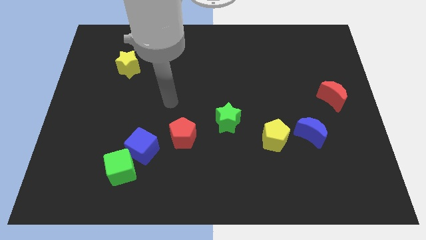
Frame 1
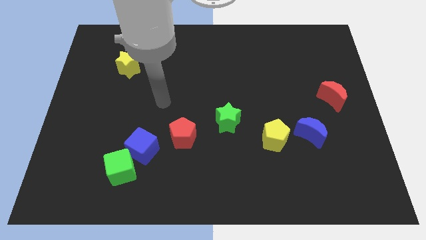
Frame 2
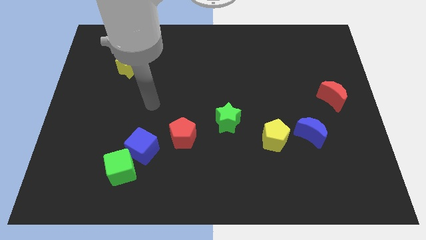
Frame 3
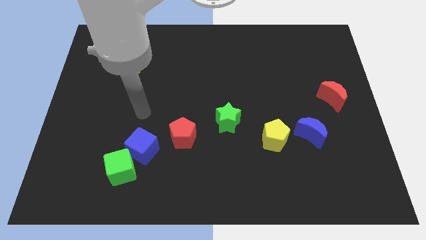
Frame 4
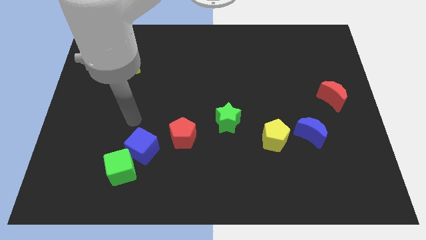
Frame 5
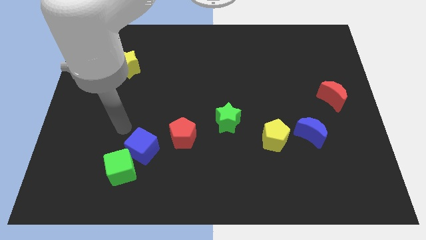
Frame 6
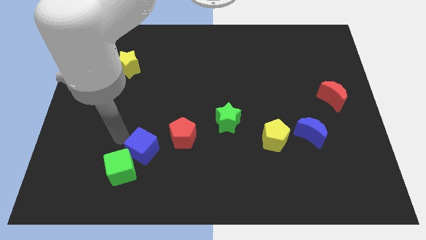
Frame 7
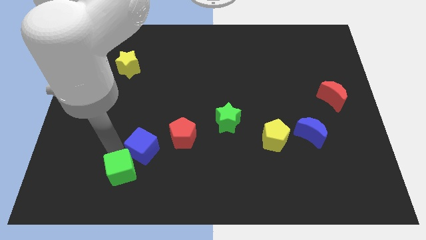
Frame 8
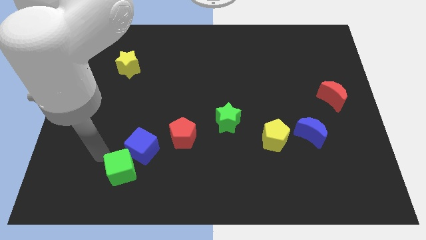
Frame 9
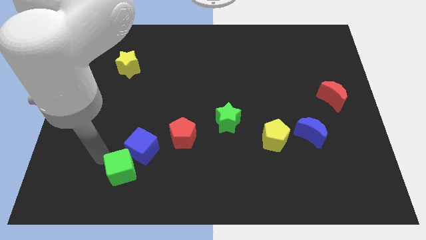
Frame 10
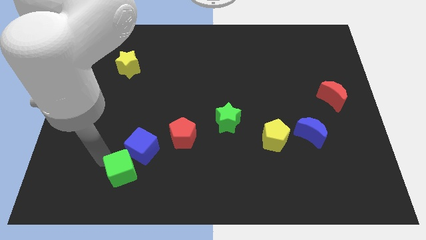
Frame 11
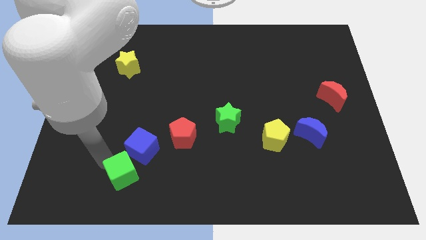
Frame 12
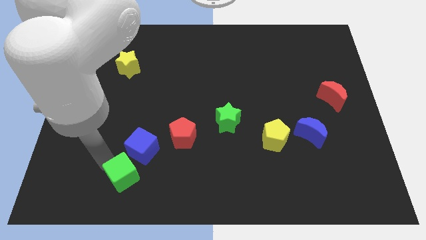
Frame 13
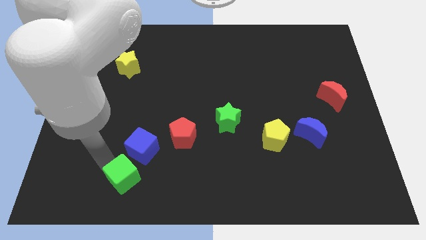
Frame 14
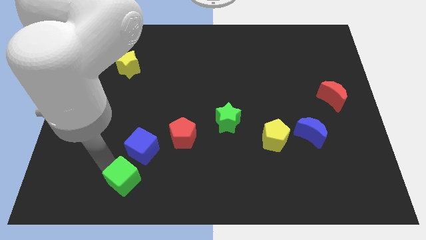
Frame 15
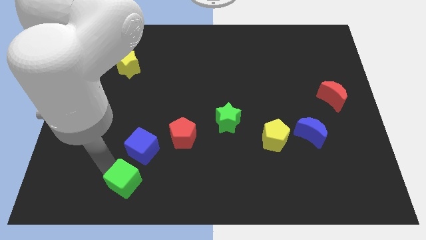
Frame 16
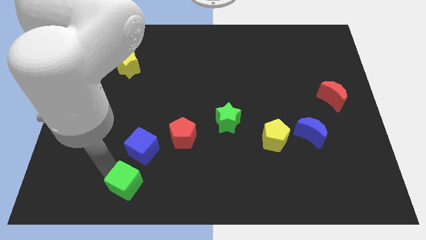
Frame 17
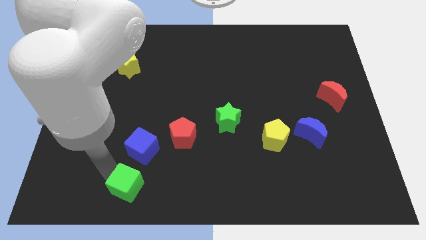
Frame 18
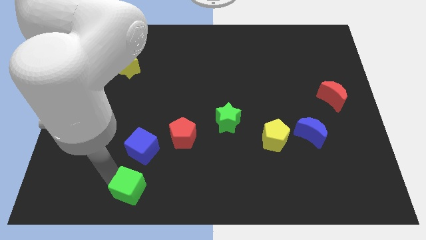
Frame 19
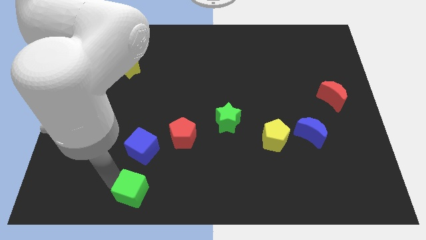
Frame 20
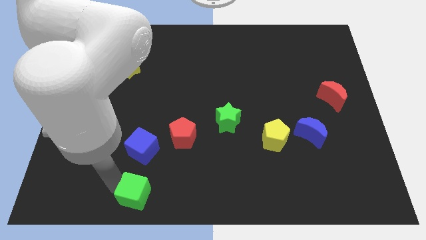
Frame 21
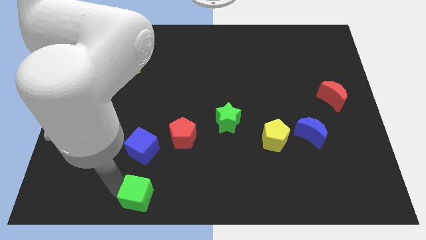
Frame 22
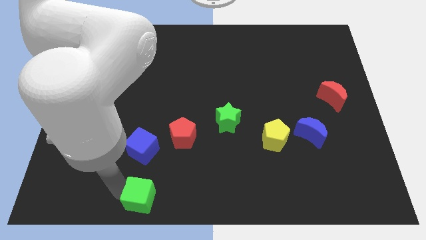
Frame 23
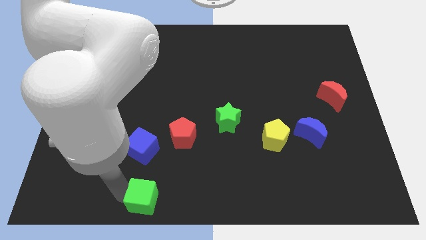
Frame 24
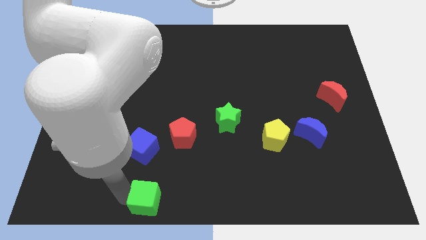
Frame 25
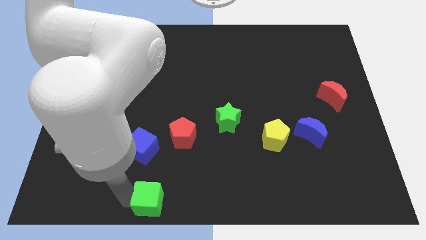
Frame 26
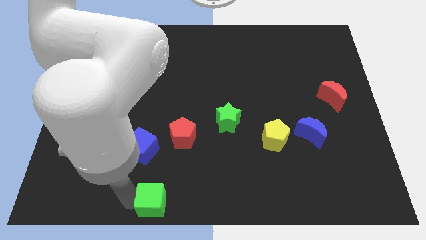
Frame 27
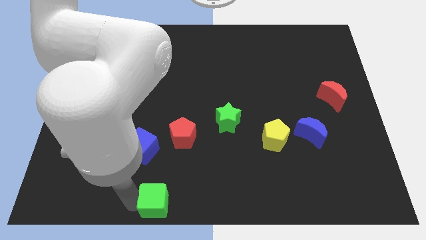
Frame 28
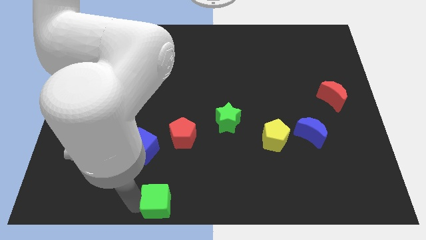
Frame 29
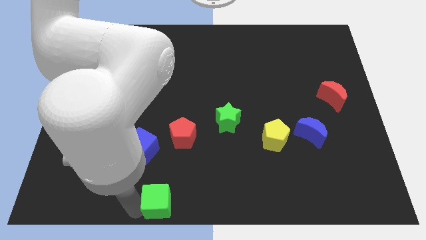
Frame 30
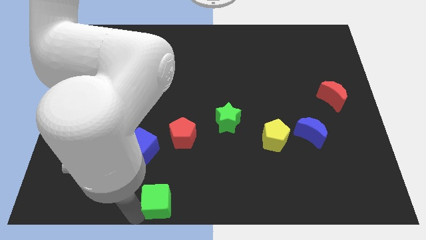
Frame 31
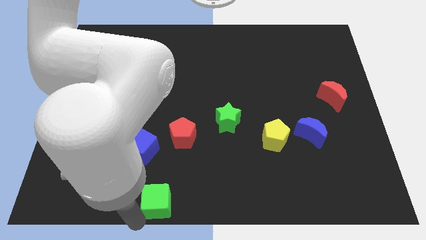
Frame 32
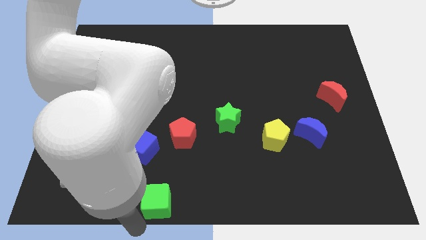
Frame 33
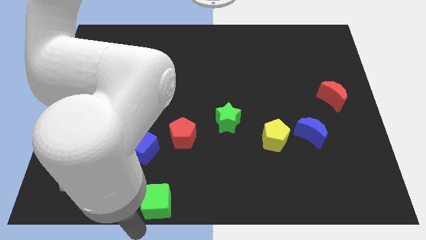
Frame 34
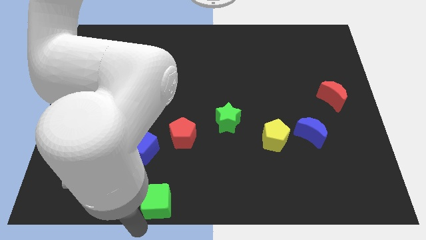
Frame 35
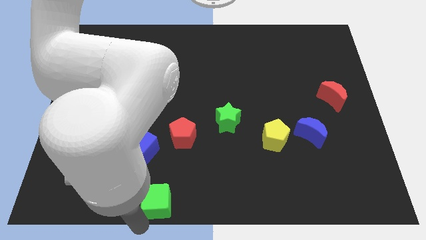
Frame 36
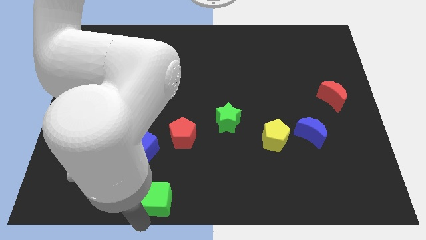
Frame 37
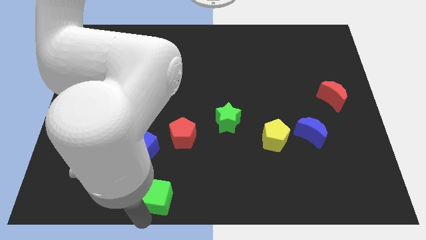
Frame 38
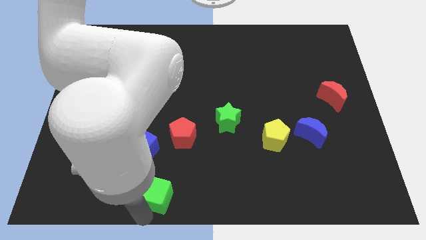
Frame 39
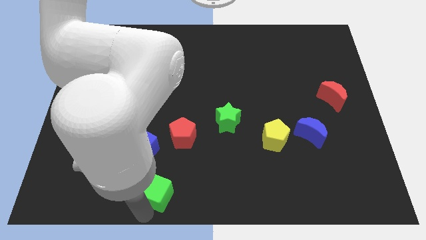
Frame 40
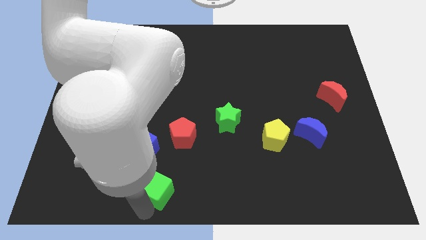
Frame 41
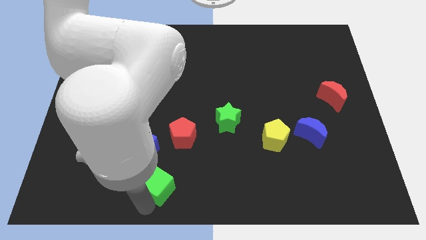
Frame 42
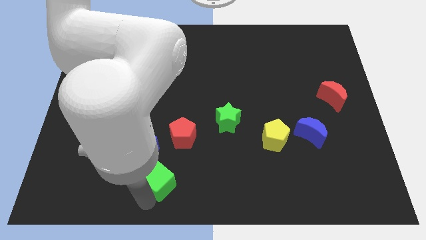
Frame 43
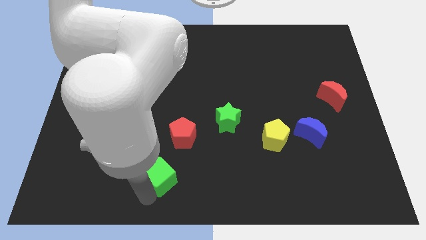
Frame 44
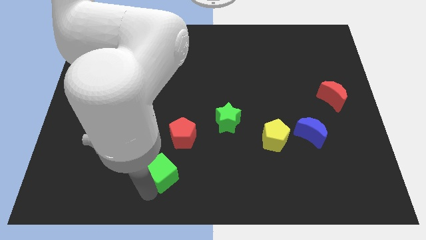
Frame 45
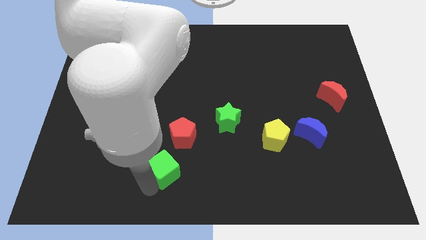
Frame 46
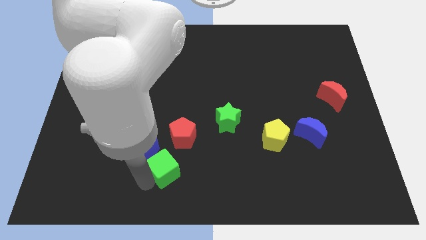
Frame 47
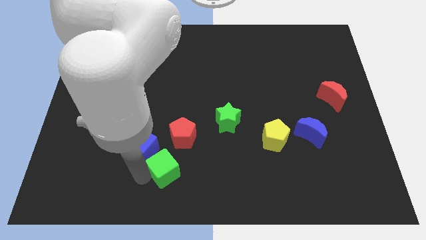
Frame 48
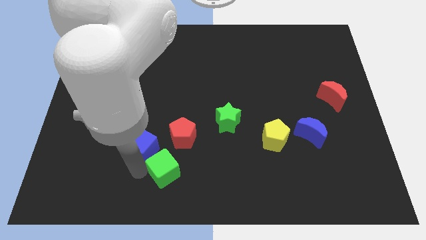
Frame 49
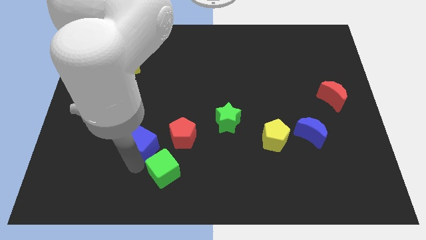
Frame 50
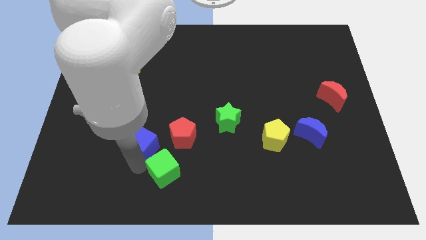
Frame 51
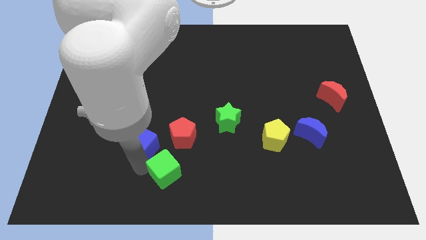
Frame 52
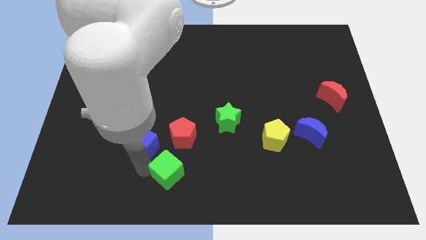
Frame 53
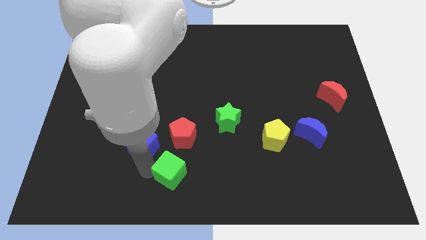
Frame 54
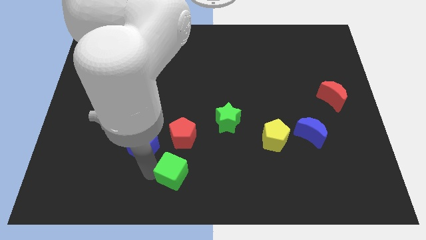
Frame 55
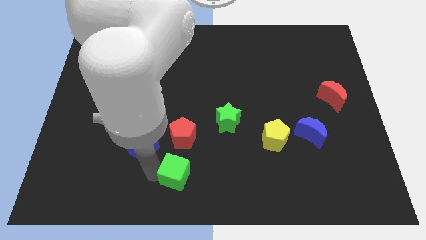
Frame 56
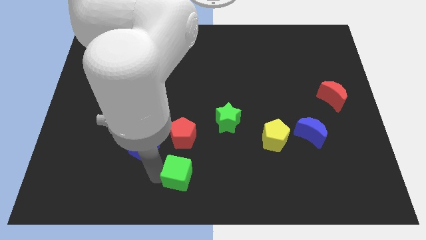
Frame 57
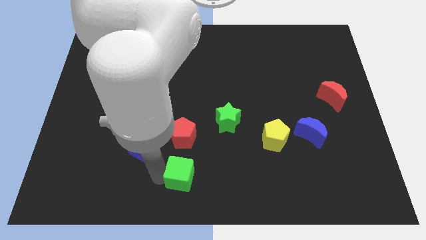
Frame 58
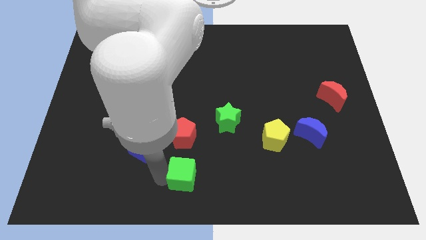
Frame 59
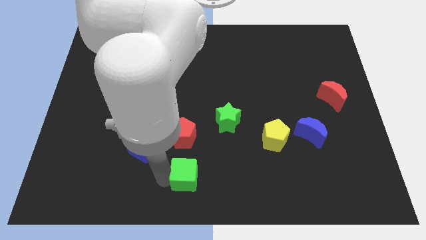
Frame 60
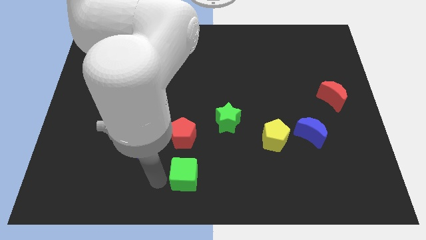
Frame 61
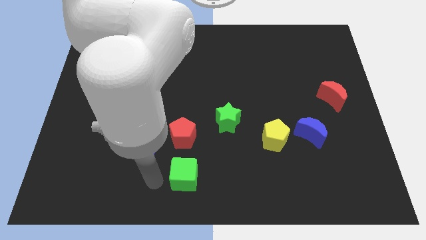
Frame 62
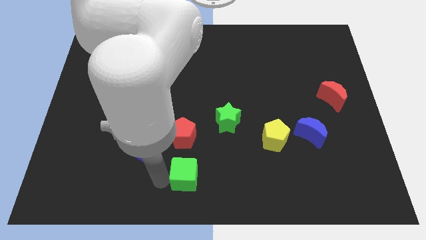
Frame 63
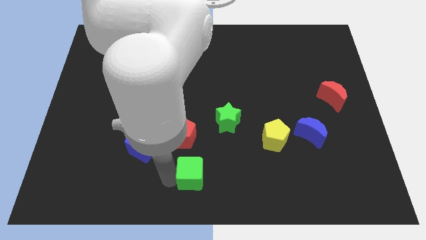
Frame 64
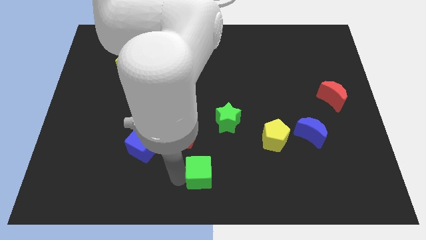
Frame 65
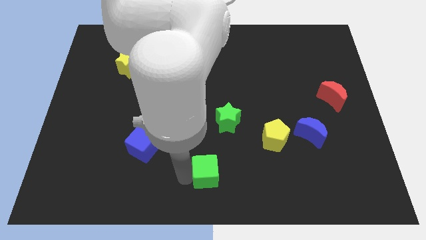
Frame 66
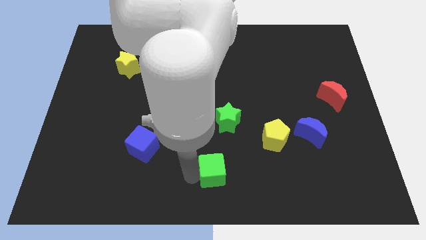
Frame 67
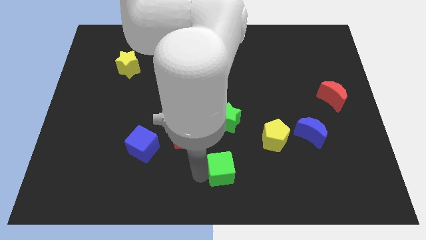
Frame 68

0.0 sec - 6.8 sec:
move the green cube right

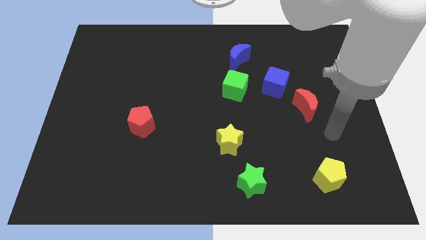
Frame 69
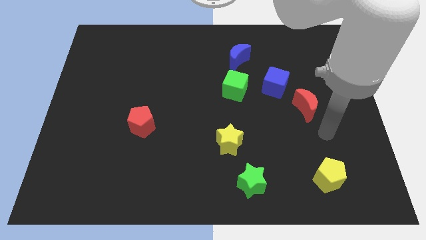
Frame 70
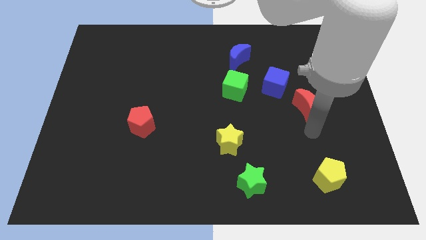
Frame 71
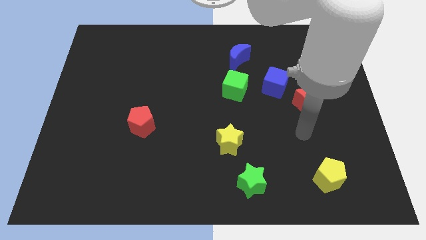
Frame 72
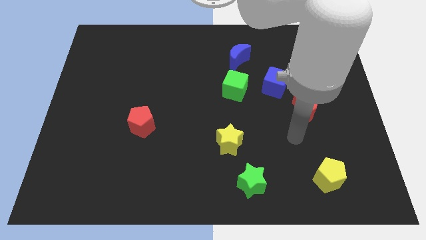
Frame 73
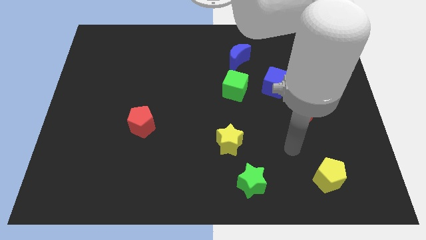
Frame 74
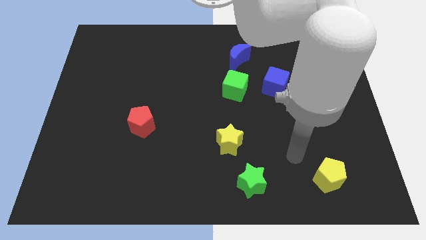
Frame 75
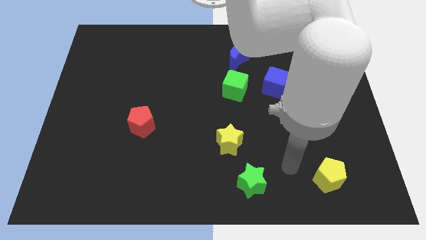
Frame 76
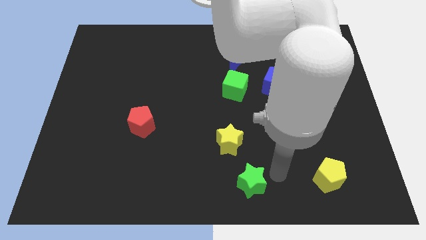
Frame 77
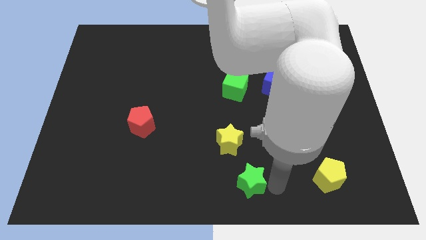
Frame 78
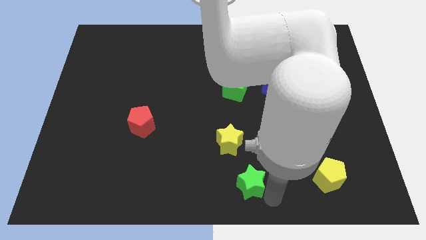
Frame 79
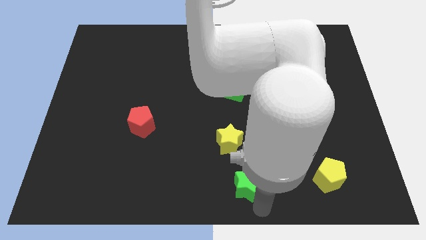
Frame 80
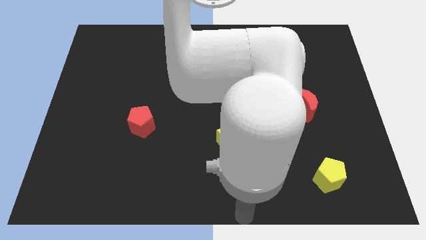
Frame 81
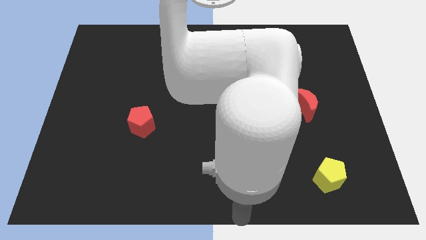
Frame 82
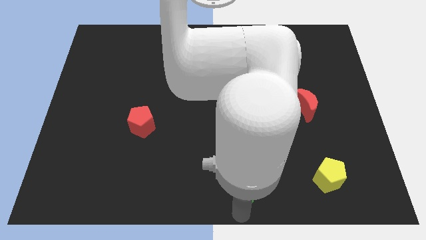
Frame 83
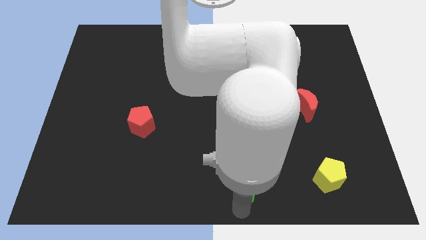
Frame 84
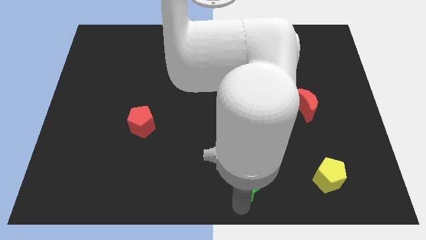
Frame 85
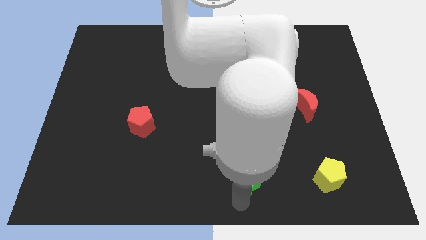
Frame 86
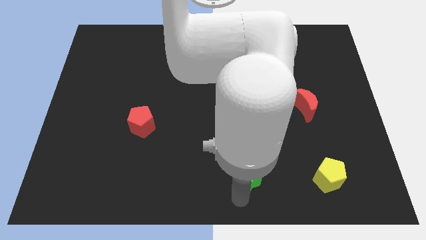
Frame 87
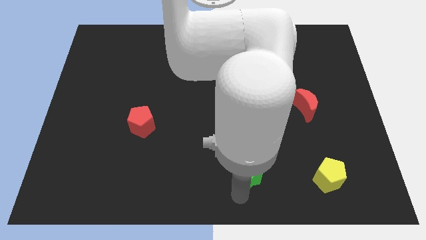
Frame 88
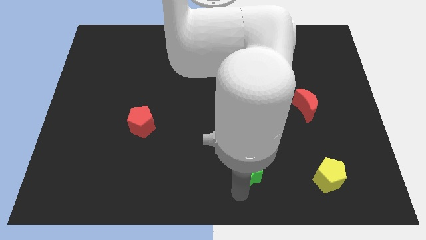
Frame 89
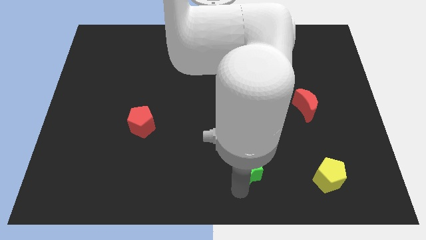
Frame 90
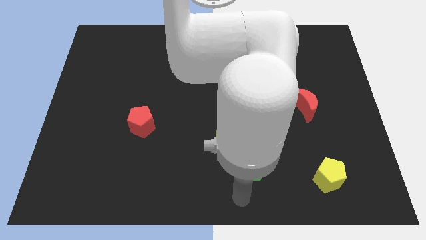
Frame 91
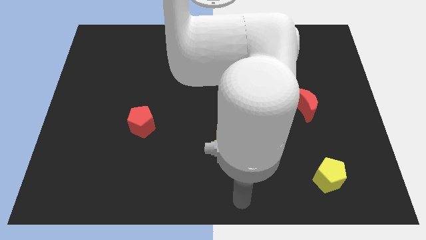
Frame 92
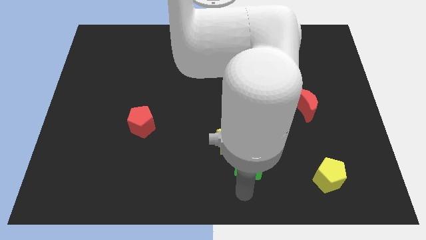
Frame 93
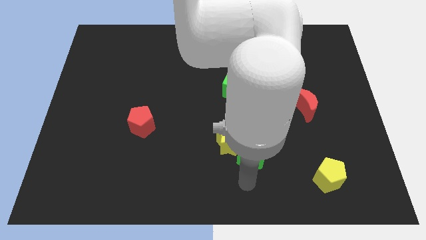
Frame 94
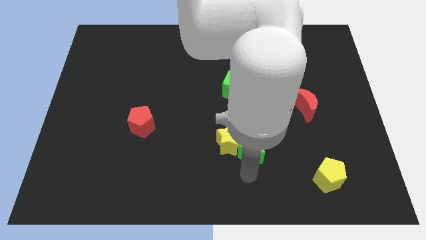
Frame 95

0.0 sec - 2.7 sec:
push the green star up a little
